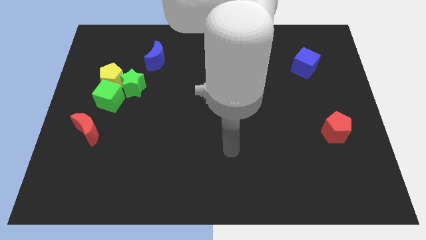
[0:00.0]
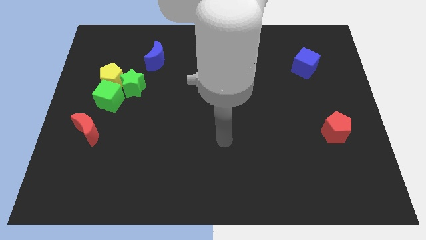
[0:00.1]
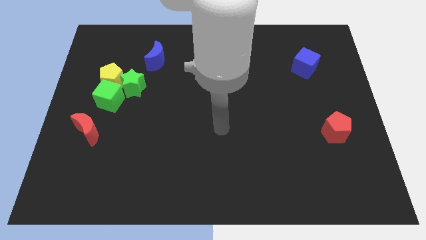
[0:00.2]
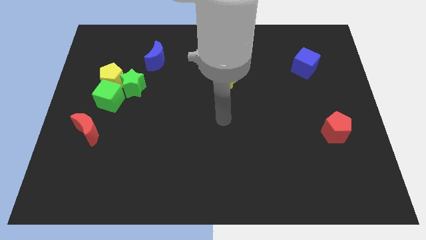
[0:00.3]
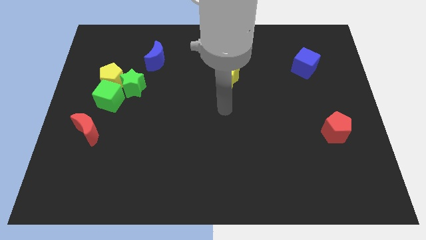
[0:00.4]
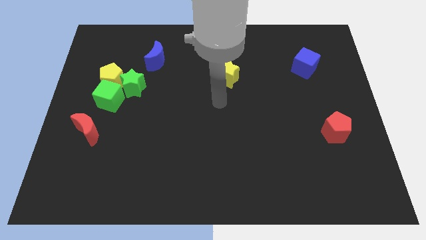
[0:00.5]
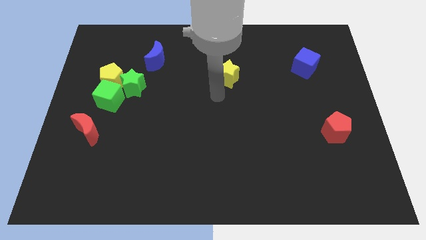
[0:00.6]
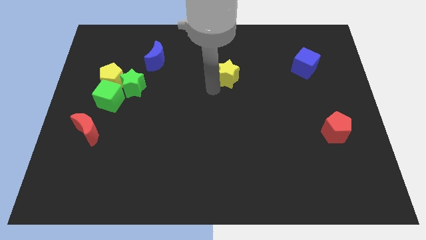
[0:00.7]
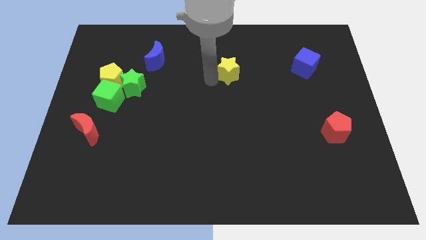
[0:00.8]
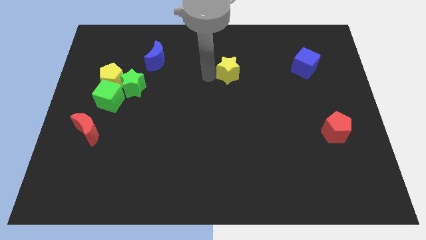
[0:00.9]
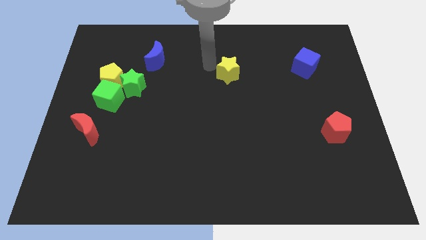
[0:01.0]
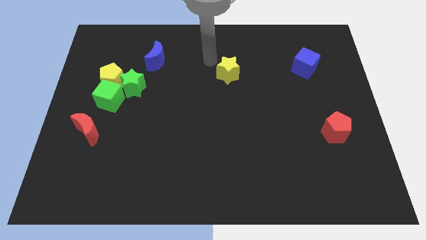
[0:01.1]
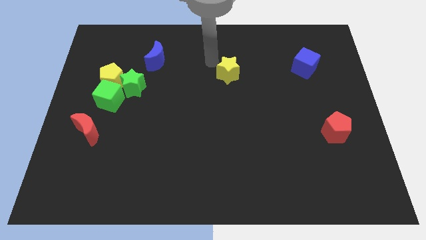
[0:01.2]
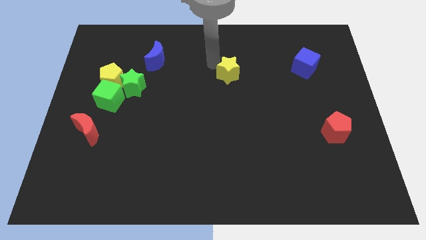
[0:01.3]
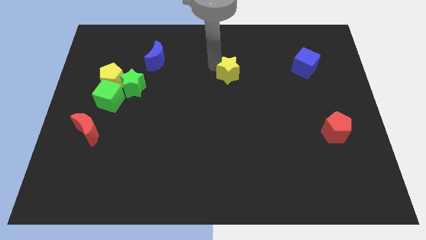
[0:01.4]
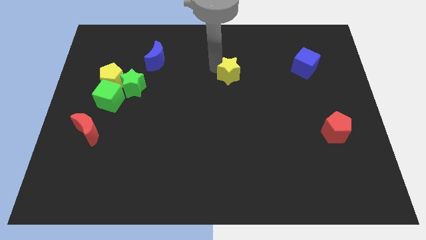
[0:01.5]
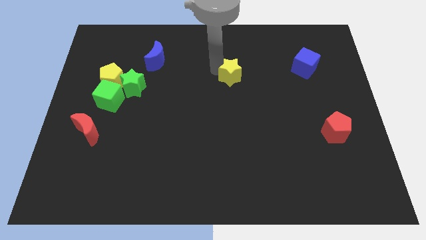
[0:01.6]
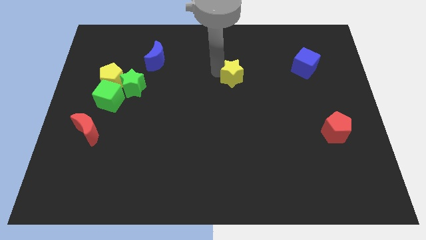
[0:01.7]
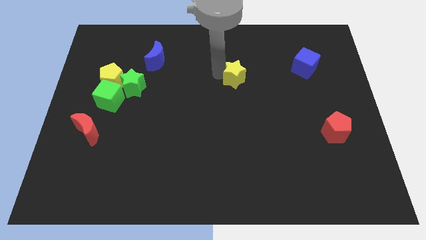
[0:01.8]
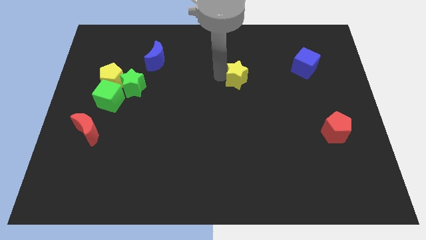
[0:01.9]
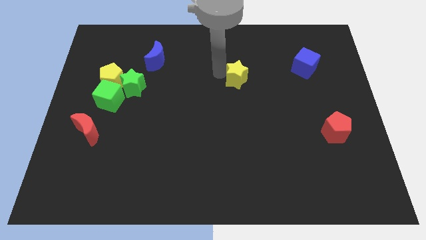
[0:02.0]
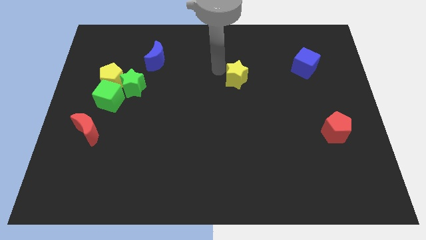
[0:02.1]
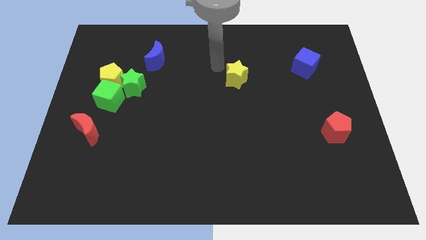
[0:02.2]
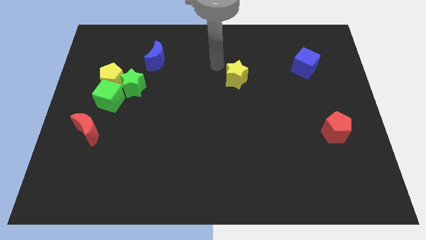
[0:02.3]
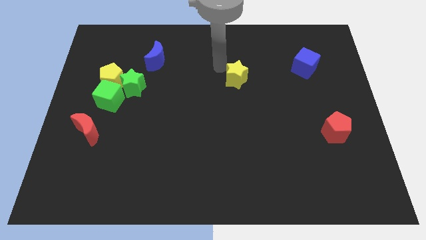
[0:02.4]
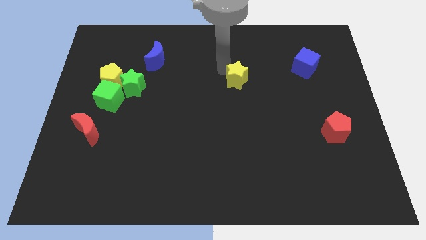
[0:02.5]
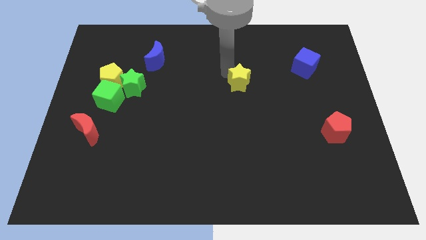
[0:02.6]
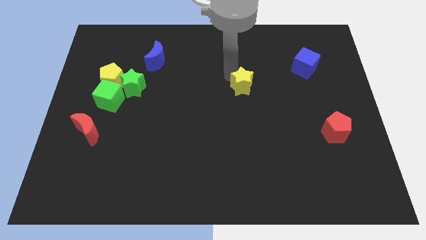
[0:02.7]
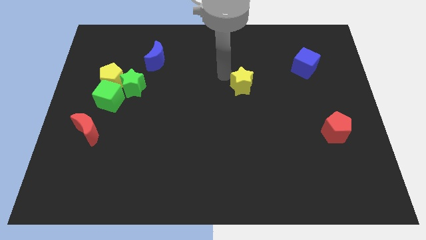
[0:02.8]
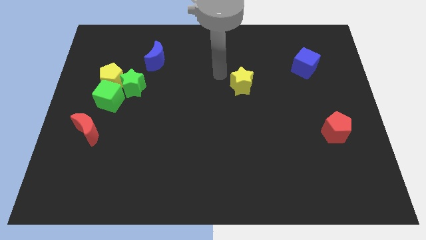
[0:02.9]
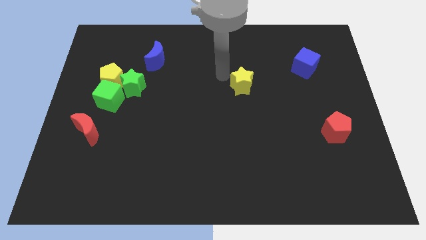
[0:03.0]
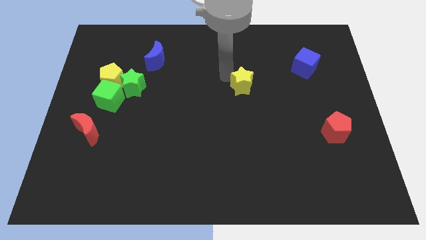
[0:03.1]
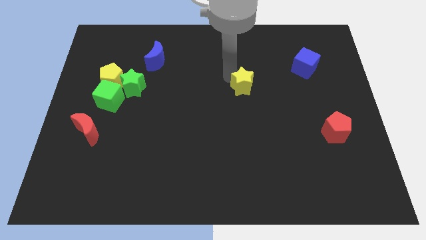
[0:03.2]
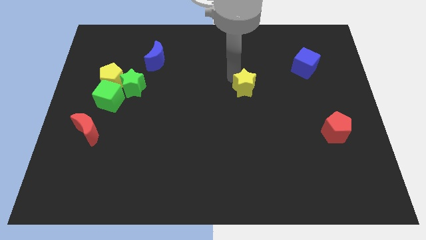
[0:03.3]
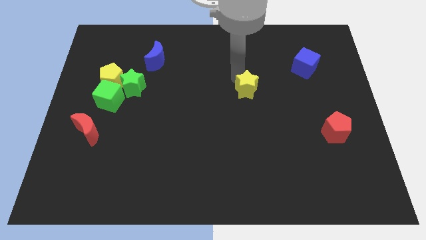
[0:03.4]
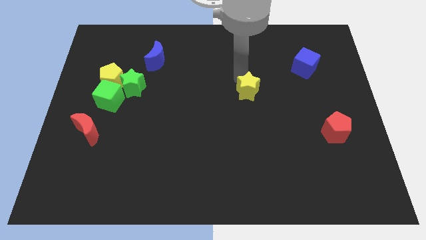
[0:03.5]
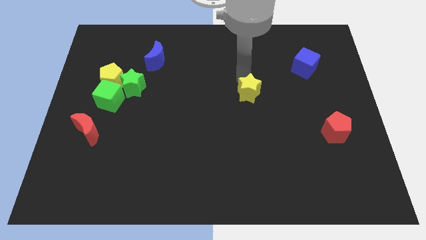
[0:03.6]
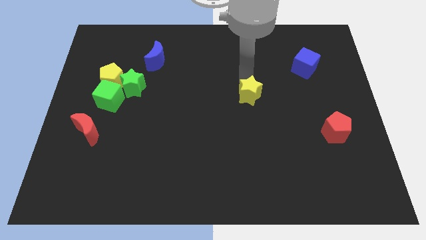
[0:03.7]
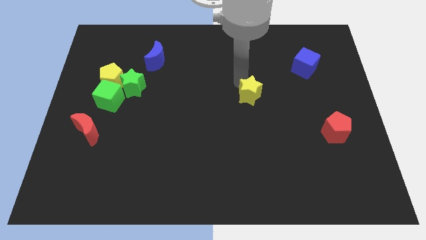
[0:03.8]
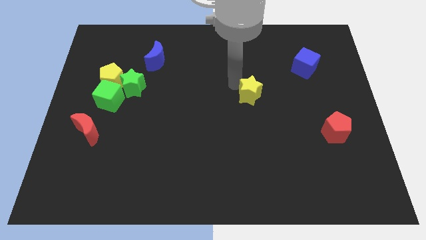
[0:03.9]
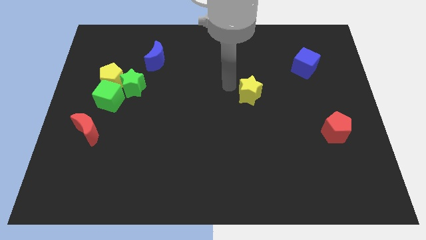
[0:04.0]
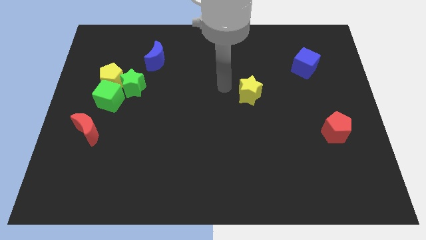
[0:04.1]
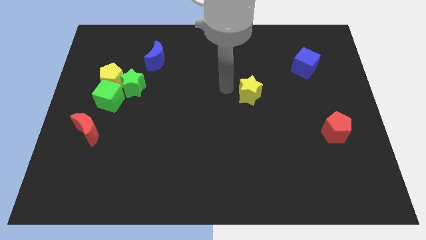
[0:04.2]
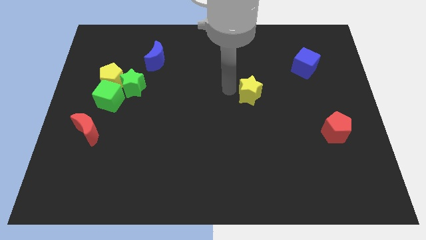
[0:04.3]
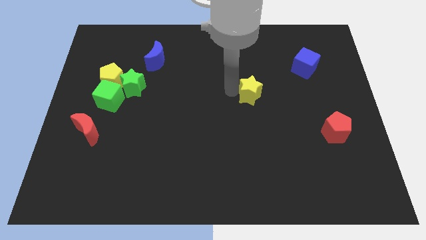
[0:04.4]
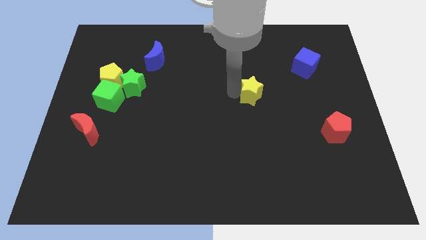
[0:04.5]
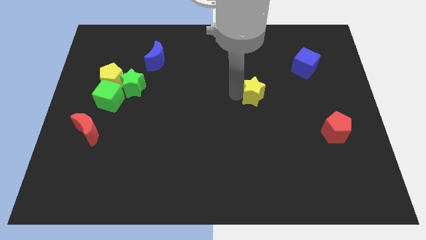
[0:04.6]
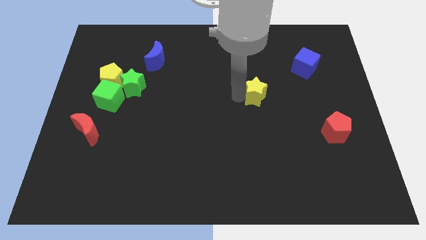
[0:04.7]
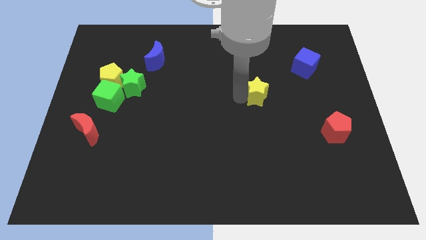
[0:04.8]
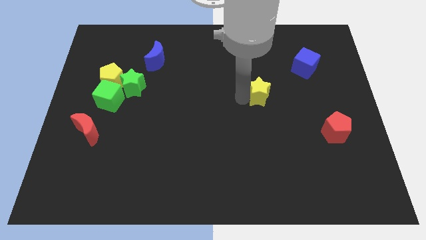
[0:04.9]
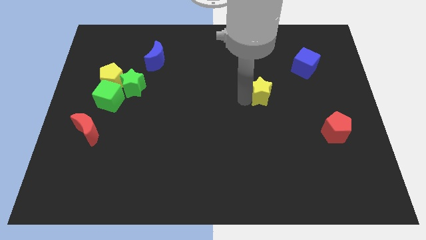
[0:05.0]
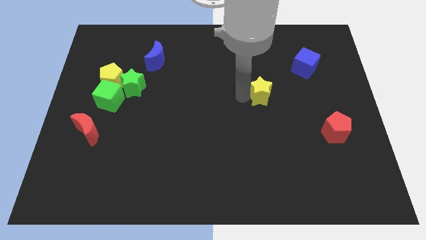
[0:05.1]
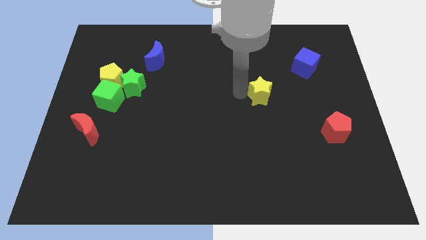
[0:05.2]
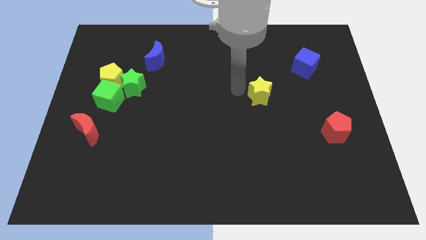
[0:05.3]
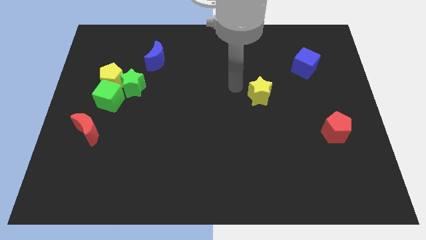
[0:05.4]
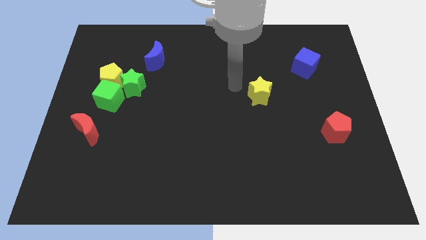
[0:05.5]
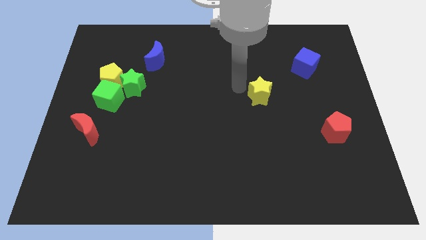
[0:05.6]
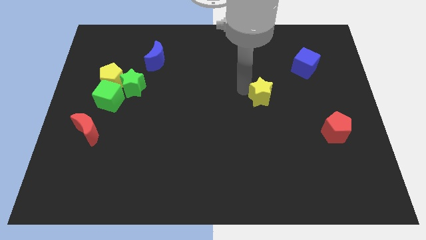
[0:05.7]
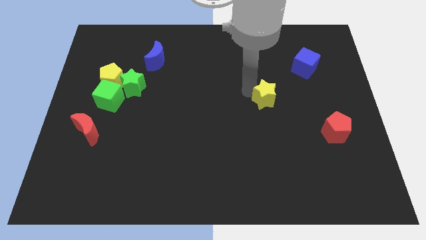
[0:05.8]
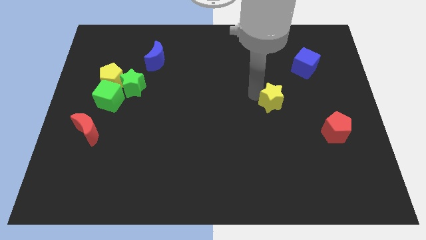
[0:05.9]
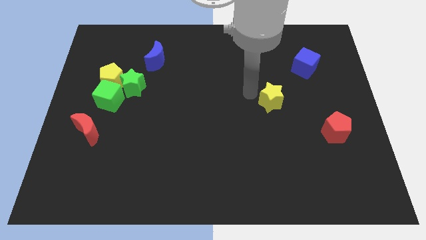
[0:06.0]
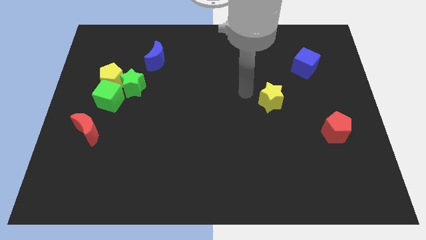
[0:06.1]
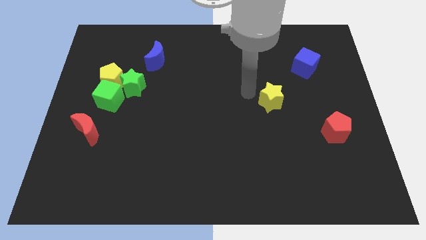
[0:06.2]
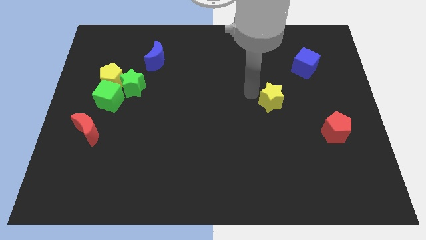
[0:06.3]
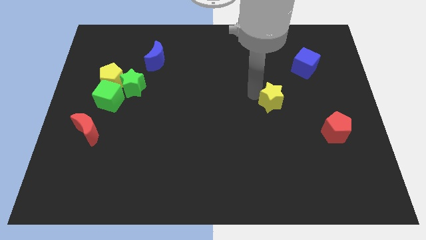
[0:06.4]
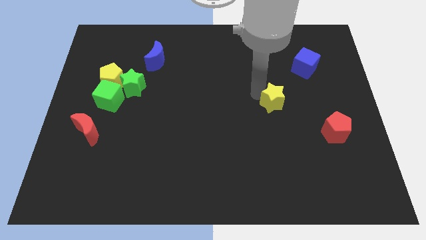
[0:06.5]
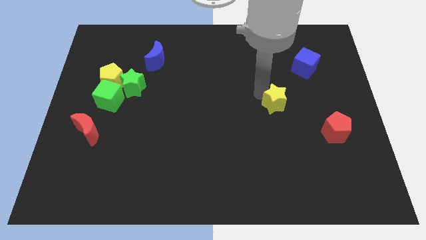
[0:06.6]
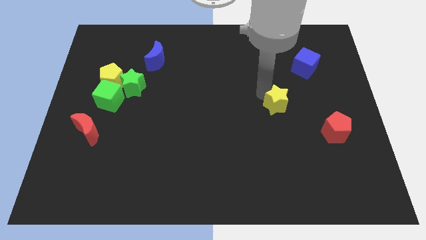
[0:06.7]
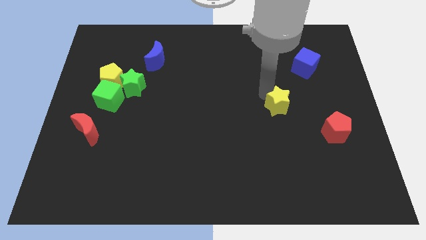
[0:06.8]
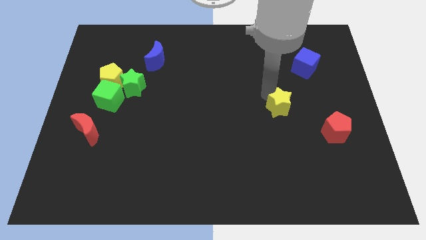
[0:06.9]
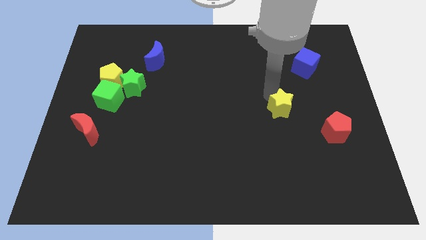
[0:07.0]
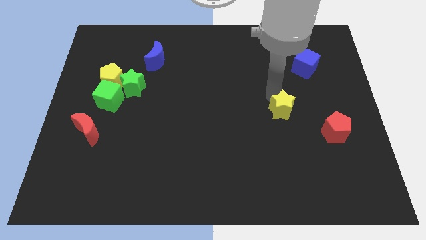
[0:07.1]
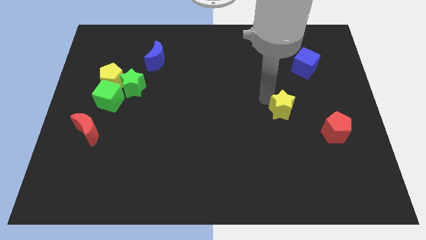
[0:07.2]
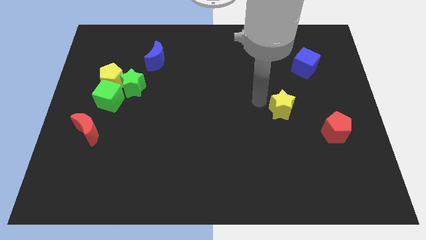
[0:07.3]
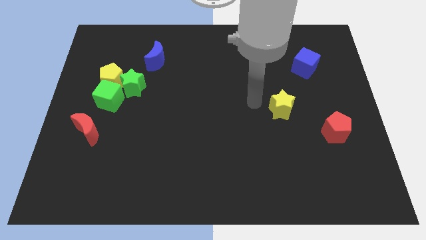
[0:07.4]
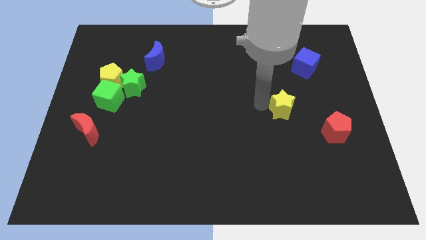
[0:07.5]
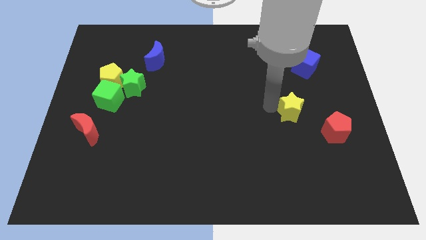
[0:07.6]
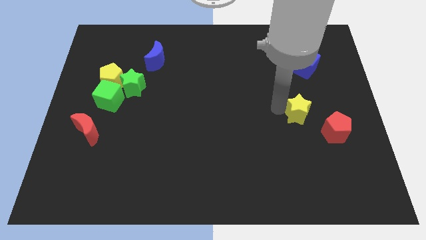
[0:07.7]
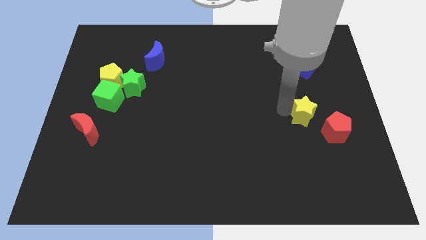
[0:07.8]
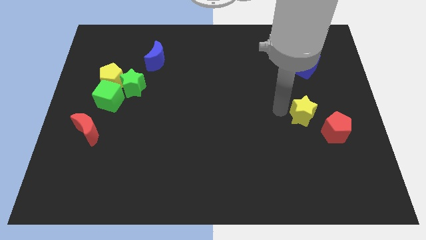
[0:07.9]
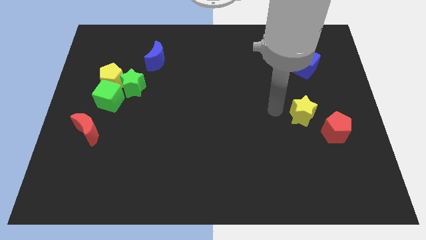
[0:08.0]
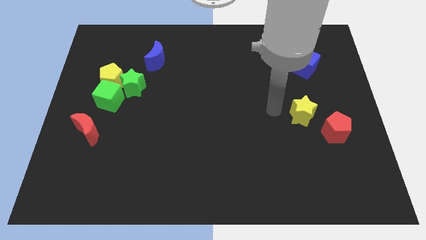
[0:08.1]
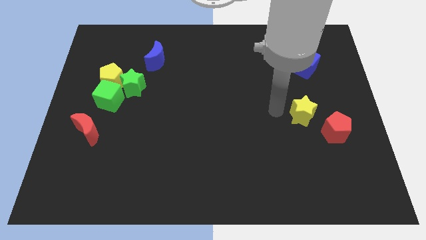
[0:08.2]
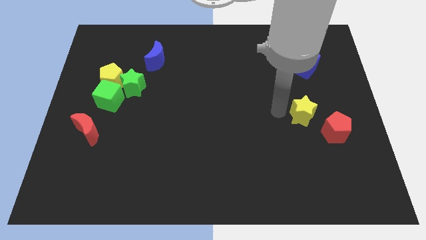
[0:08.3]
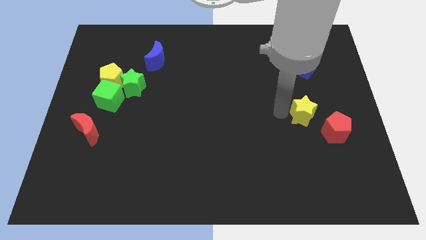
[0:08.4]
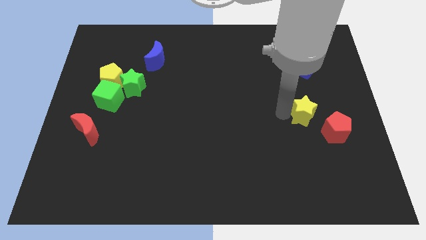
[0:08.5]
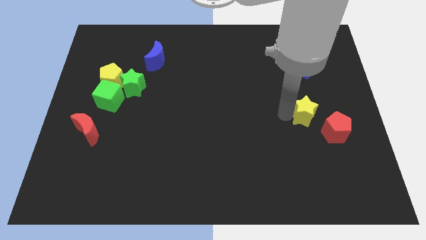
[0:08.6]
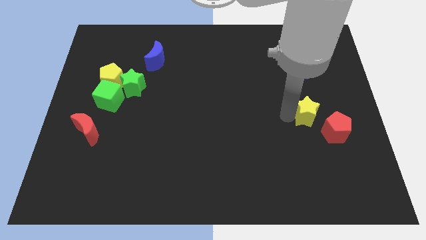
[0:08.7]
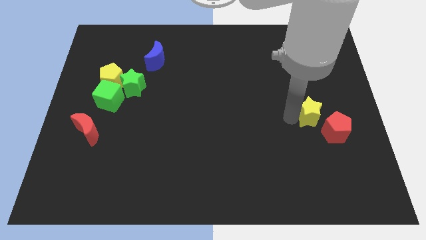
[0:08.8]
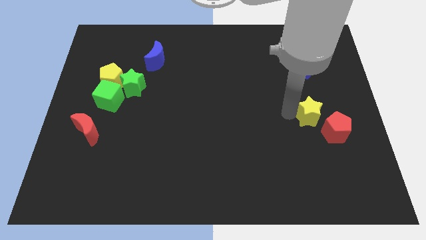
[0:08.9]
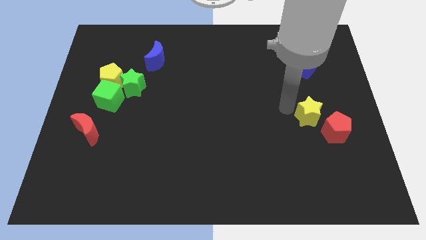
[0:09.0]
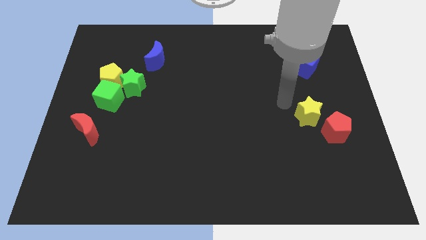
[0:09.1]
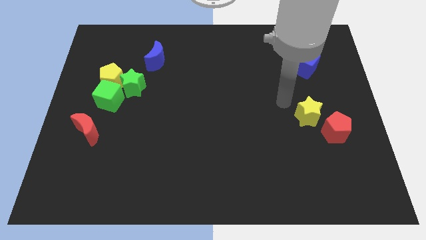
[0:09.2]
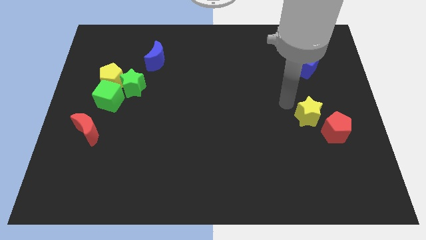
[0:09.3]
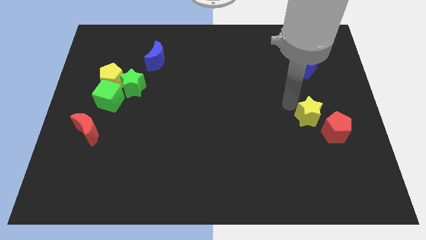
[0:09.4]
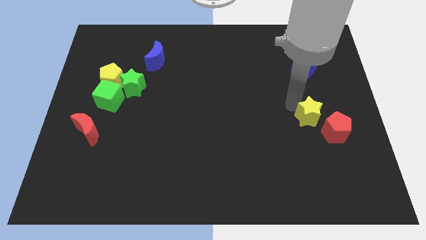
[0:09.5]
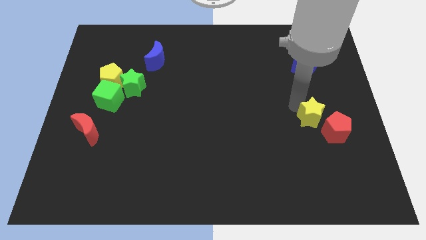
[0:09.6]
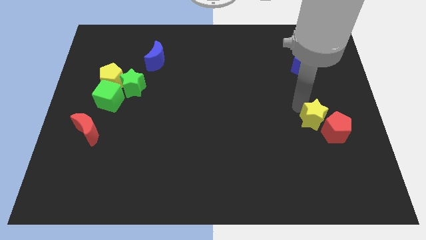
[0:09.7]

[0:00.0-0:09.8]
slide the yellow star close to the red pentagon
